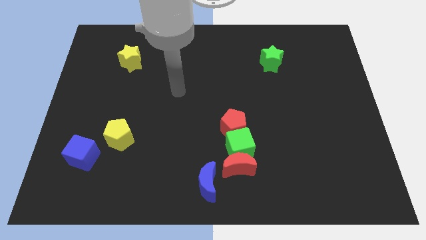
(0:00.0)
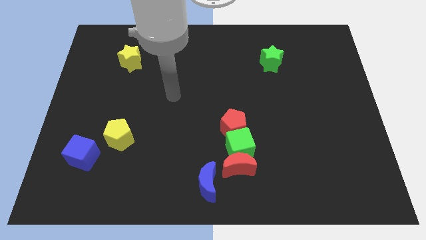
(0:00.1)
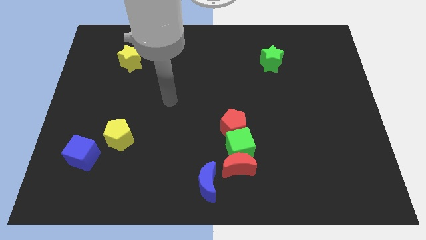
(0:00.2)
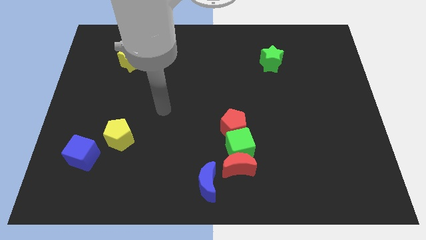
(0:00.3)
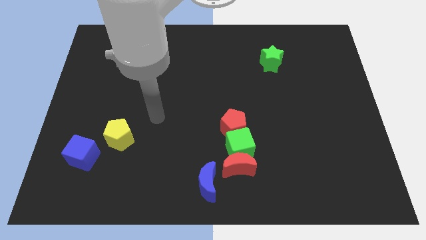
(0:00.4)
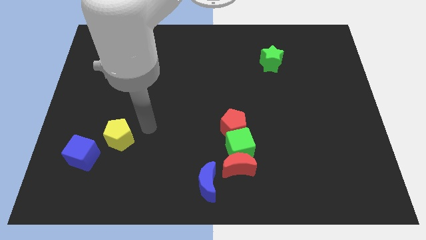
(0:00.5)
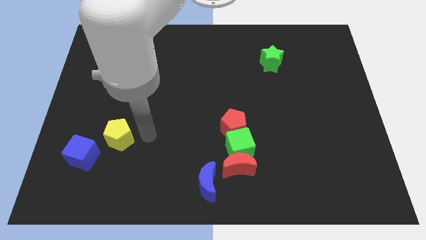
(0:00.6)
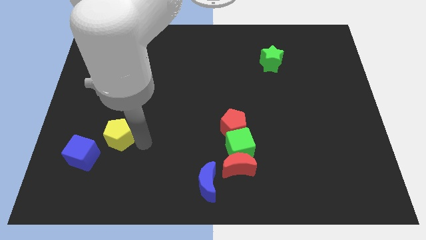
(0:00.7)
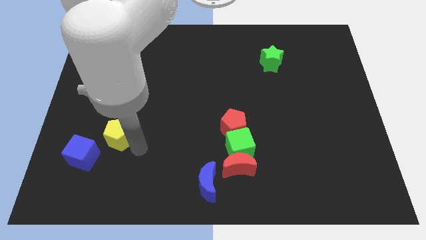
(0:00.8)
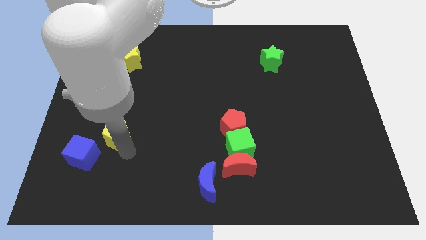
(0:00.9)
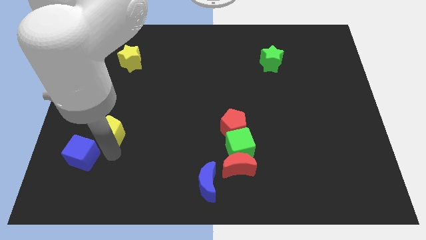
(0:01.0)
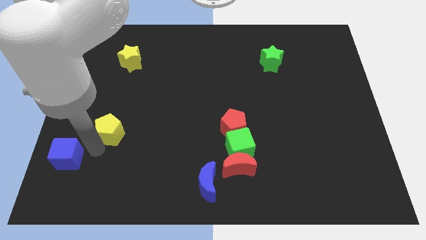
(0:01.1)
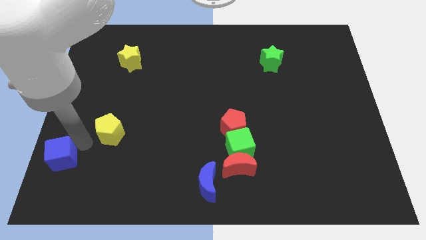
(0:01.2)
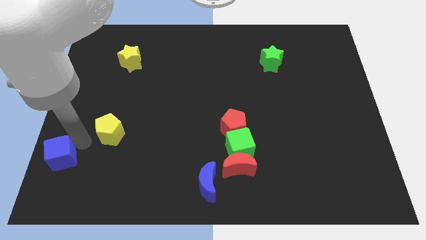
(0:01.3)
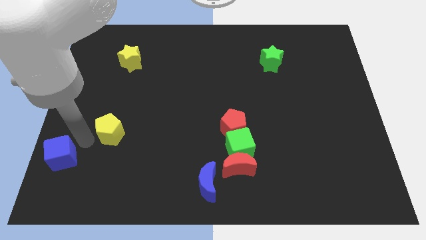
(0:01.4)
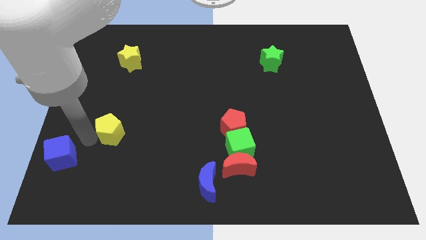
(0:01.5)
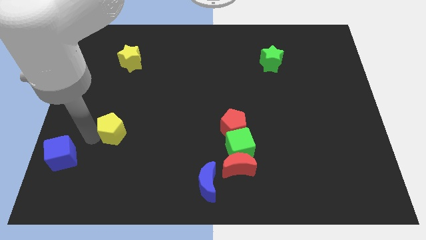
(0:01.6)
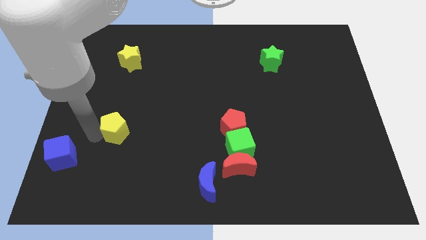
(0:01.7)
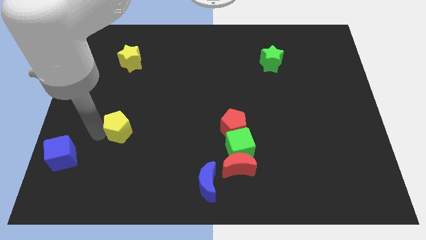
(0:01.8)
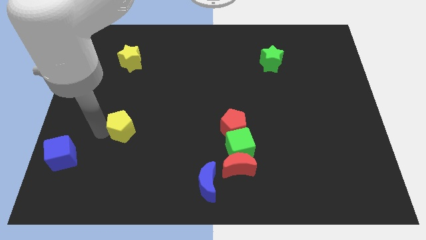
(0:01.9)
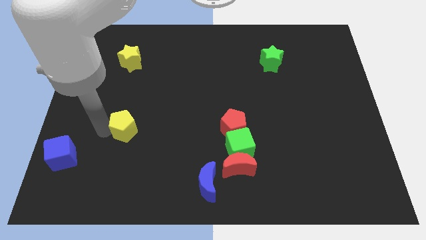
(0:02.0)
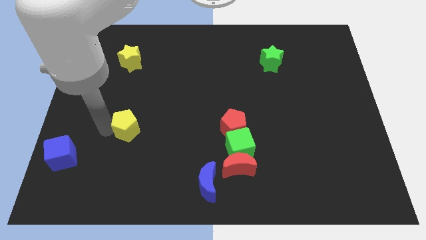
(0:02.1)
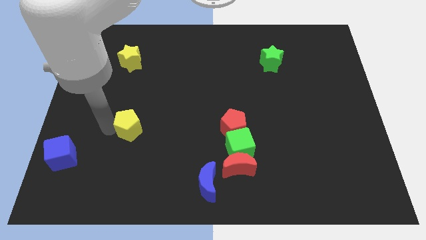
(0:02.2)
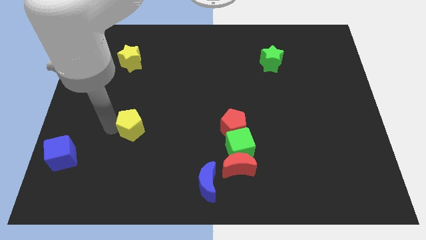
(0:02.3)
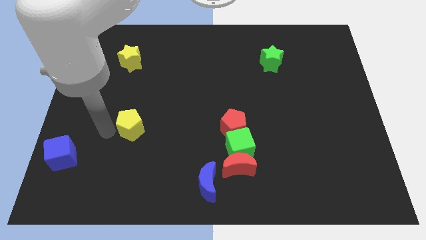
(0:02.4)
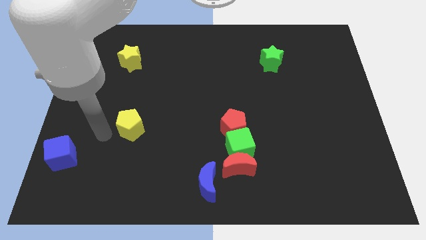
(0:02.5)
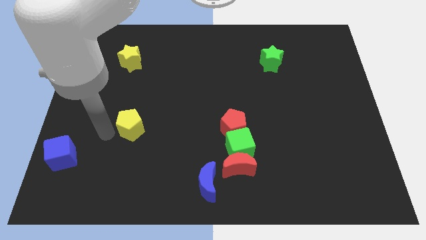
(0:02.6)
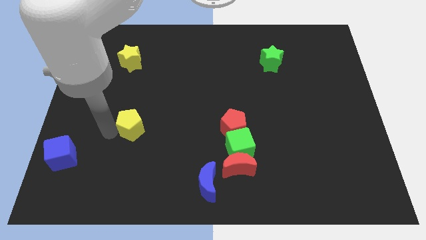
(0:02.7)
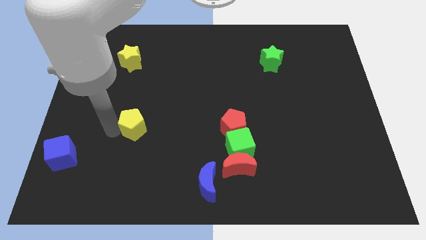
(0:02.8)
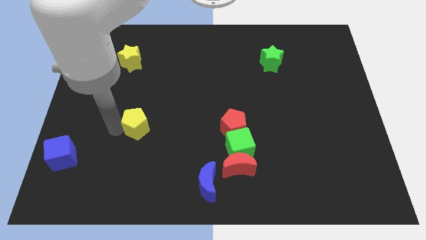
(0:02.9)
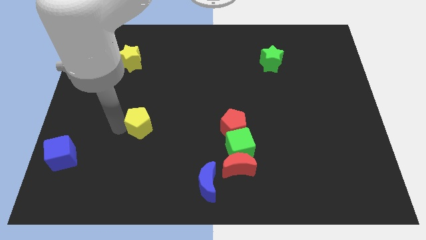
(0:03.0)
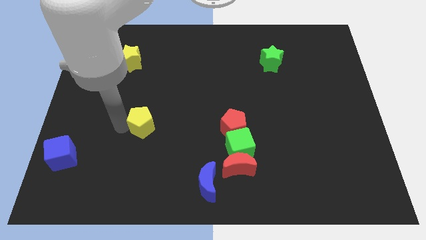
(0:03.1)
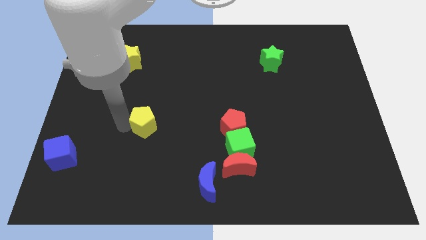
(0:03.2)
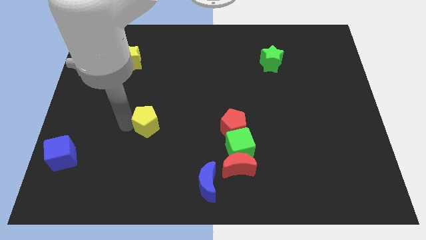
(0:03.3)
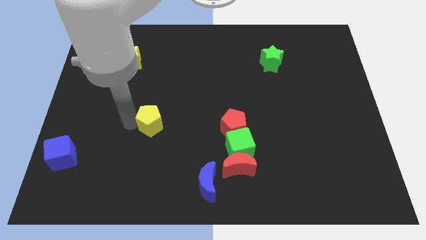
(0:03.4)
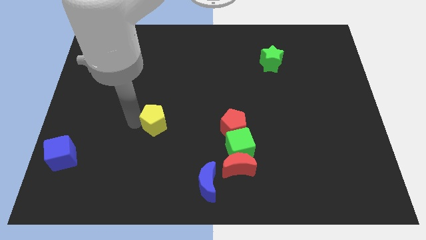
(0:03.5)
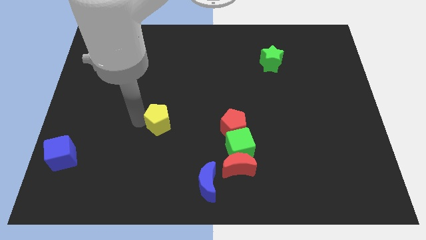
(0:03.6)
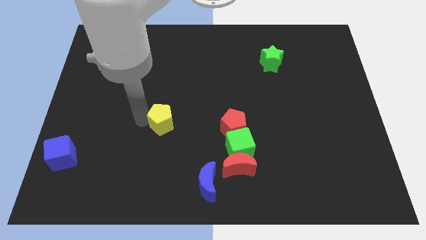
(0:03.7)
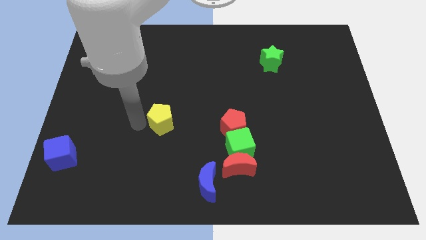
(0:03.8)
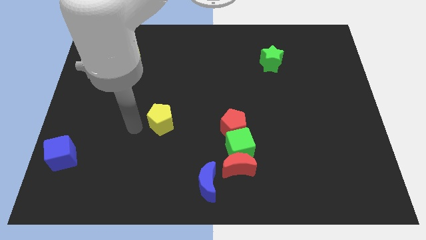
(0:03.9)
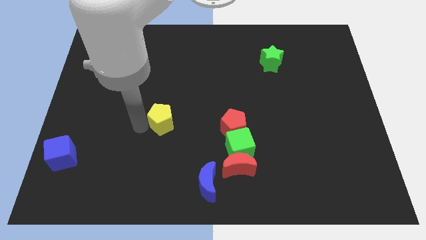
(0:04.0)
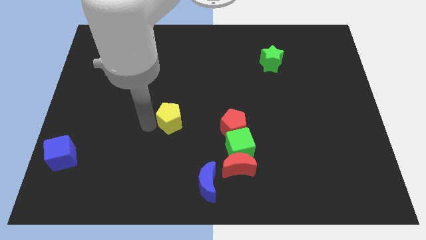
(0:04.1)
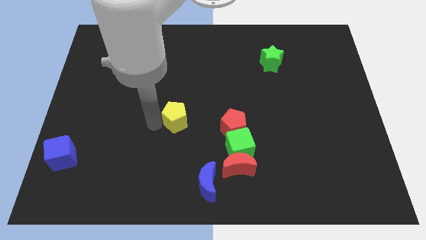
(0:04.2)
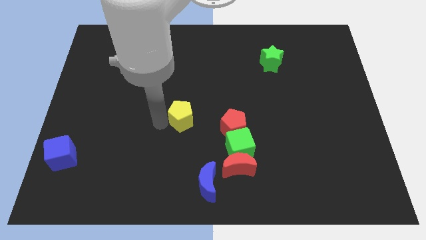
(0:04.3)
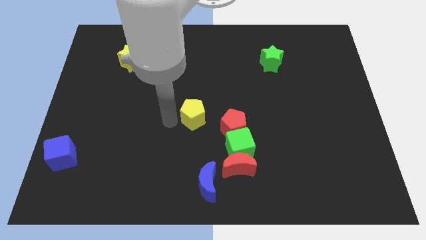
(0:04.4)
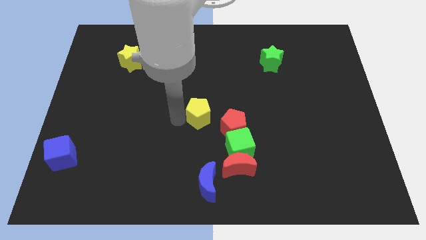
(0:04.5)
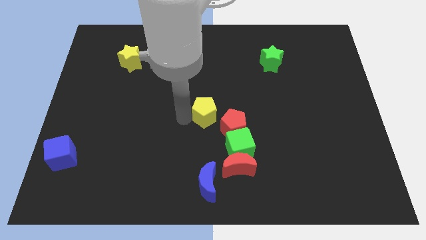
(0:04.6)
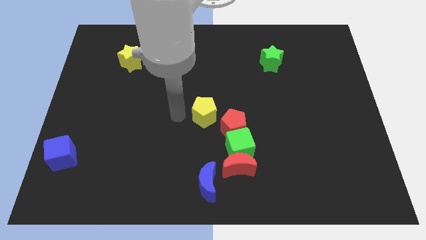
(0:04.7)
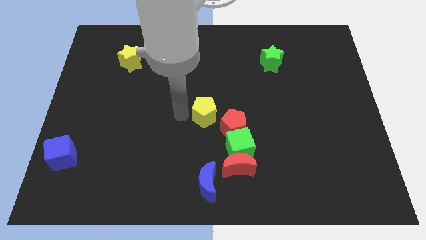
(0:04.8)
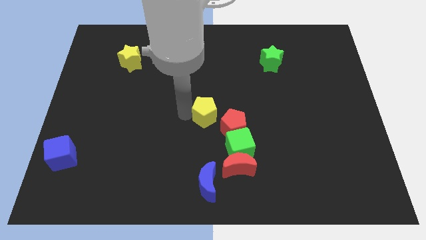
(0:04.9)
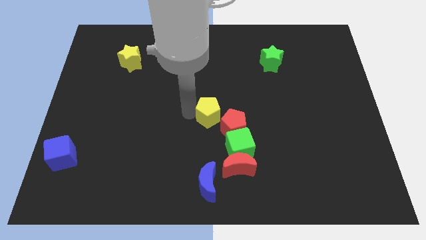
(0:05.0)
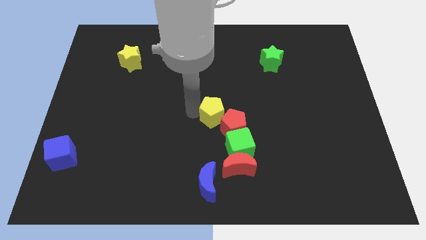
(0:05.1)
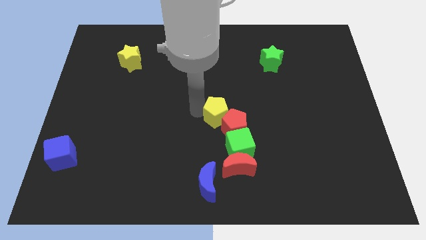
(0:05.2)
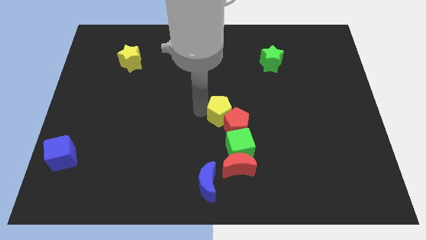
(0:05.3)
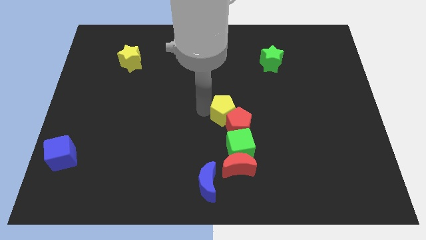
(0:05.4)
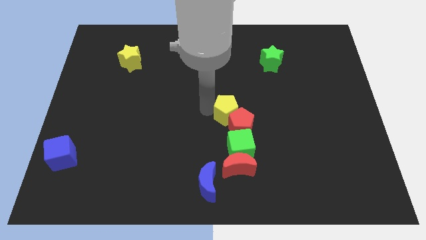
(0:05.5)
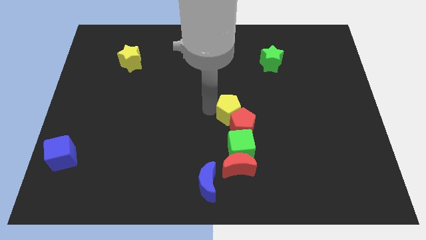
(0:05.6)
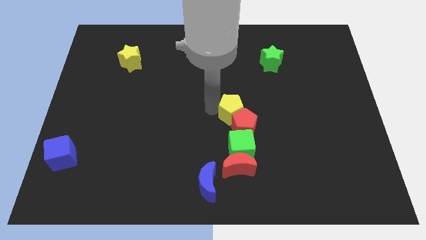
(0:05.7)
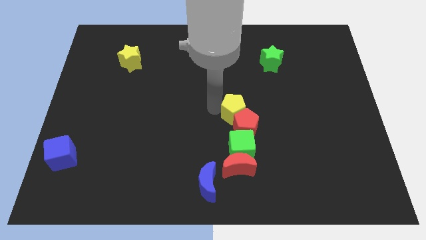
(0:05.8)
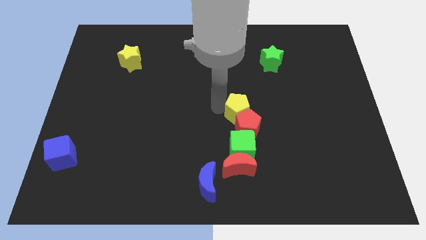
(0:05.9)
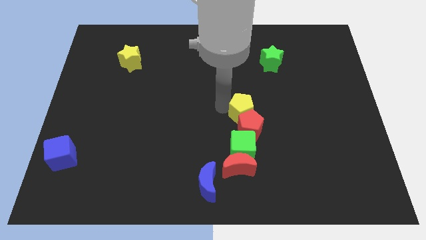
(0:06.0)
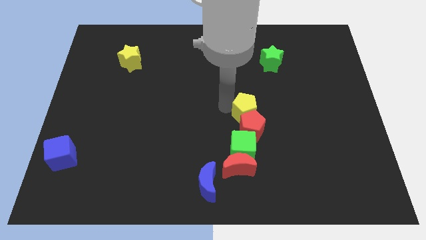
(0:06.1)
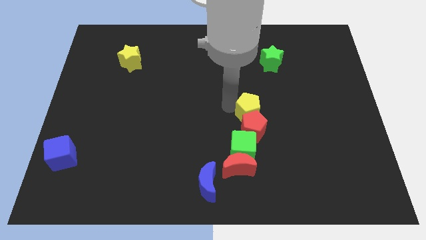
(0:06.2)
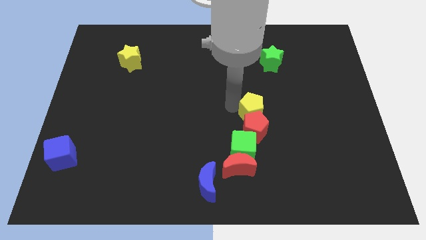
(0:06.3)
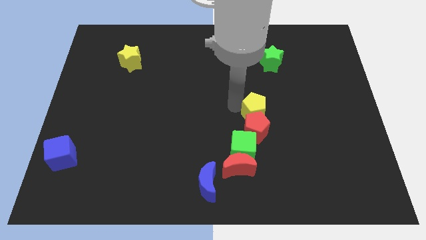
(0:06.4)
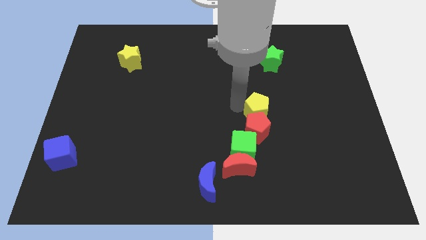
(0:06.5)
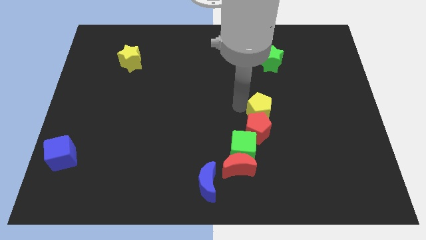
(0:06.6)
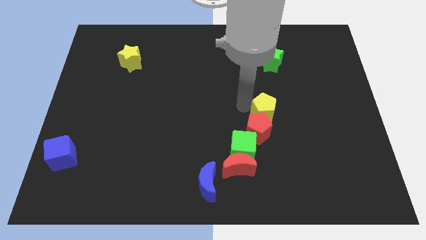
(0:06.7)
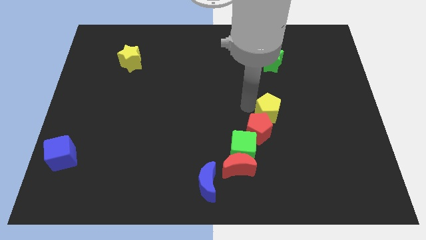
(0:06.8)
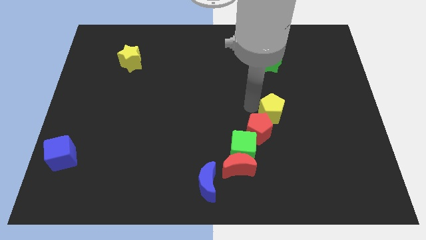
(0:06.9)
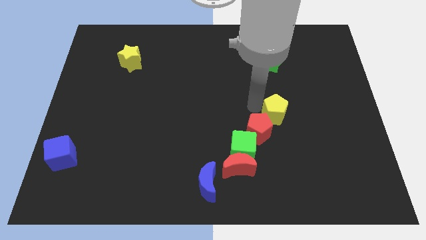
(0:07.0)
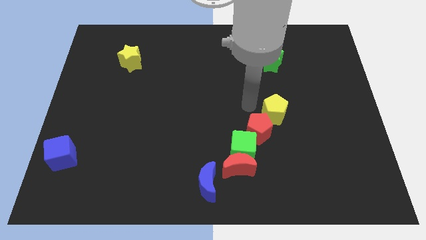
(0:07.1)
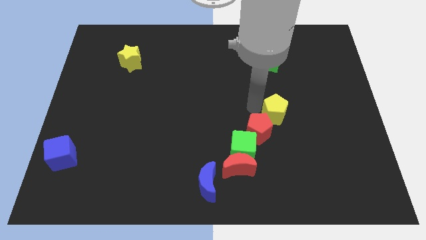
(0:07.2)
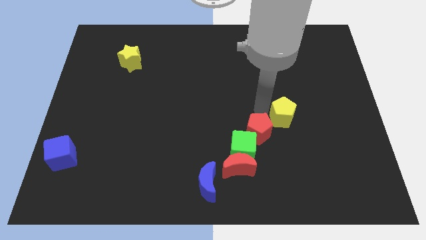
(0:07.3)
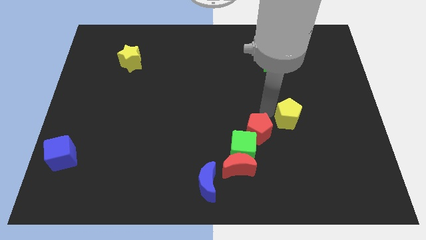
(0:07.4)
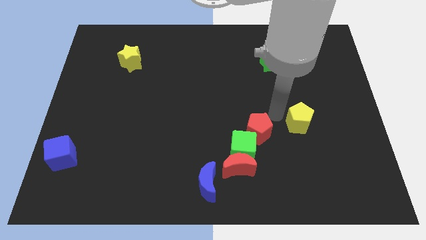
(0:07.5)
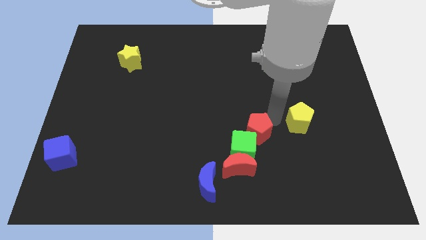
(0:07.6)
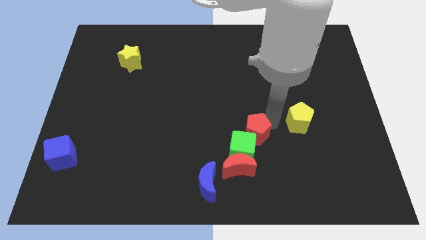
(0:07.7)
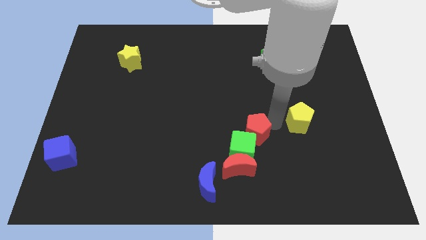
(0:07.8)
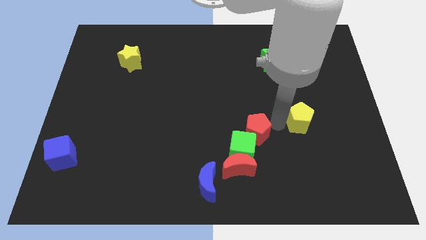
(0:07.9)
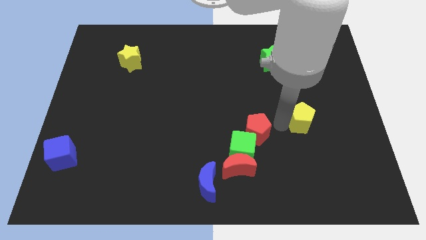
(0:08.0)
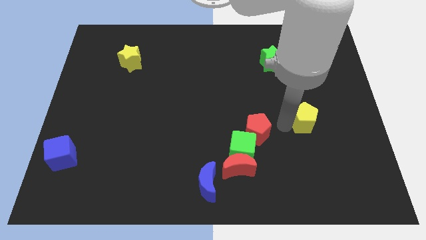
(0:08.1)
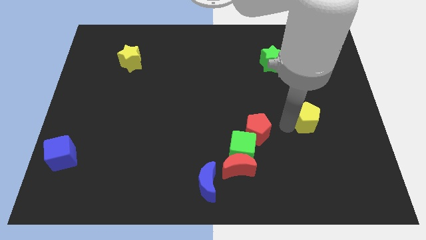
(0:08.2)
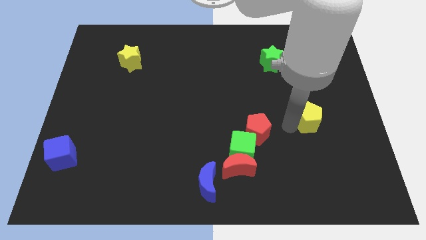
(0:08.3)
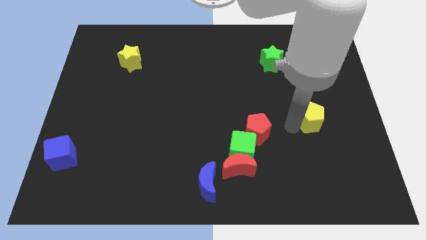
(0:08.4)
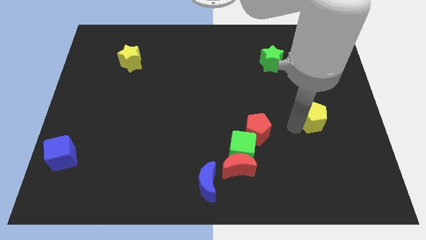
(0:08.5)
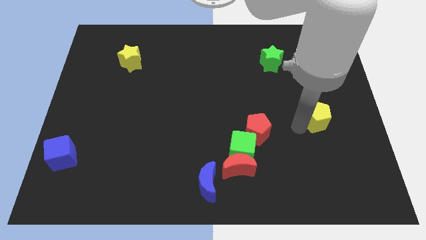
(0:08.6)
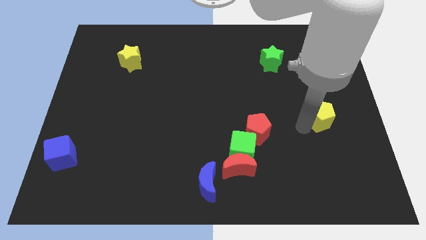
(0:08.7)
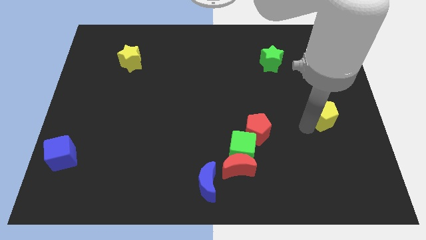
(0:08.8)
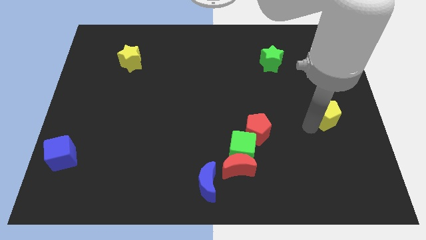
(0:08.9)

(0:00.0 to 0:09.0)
slide the yellow pentagon to the center right
